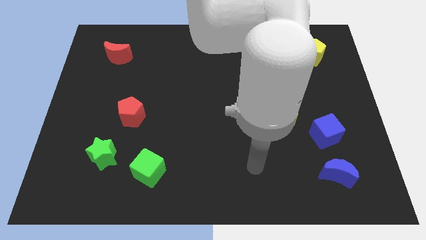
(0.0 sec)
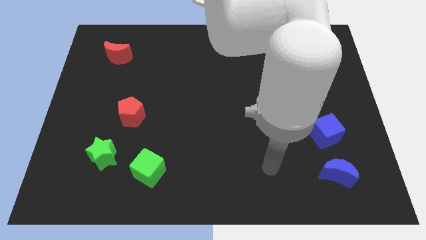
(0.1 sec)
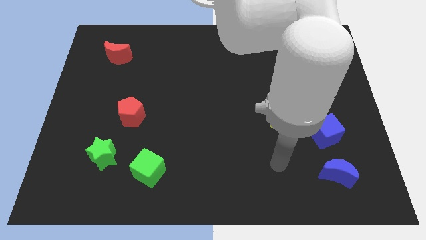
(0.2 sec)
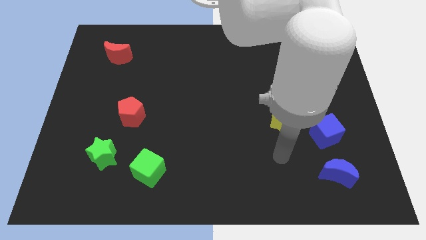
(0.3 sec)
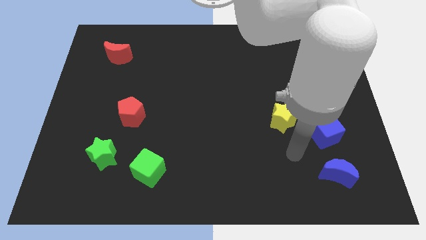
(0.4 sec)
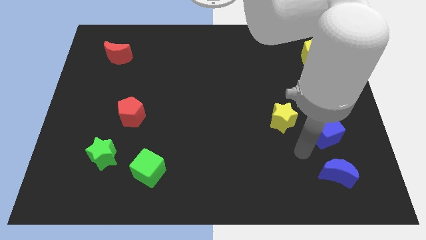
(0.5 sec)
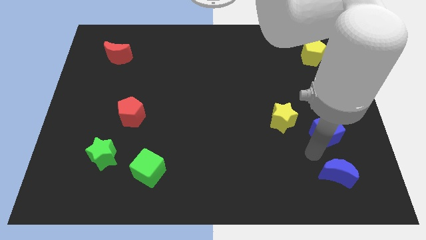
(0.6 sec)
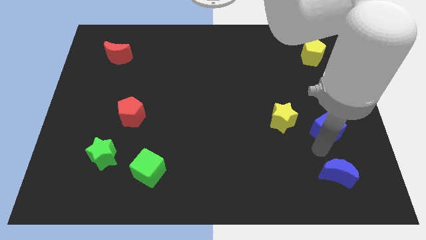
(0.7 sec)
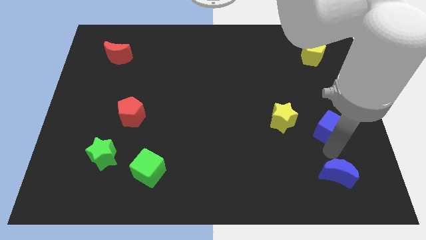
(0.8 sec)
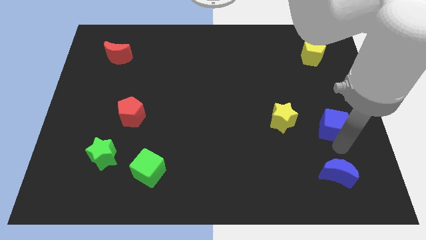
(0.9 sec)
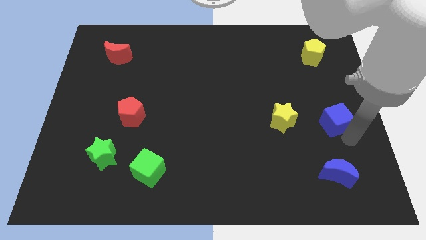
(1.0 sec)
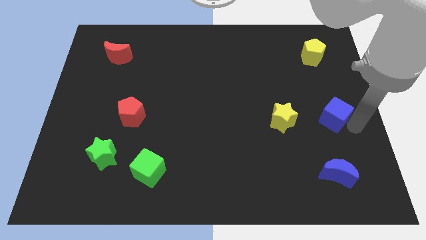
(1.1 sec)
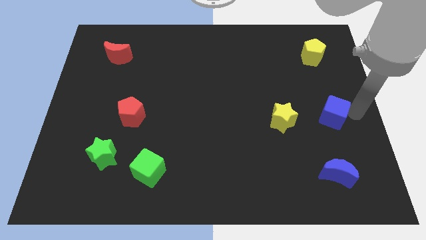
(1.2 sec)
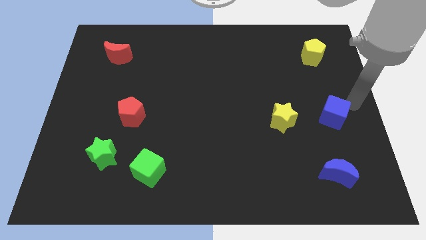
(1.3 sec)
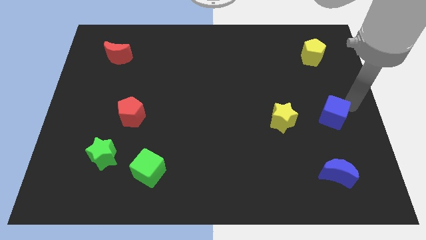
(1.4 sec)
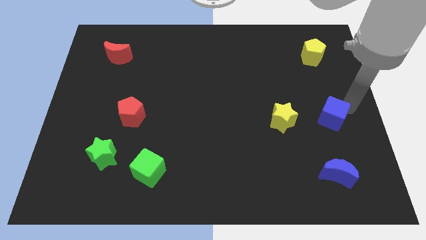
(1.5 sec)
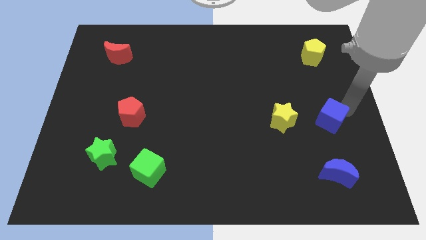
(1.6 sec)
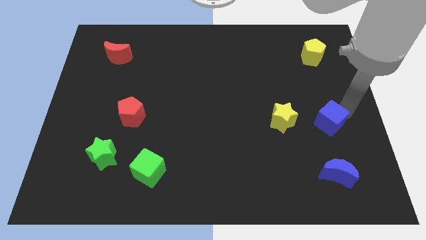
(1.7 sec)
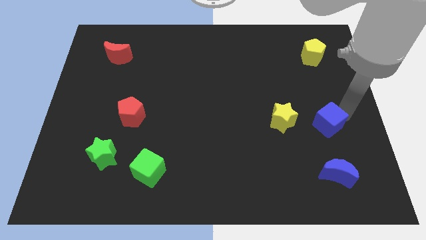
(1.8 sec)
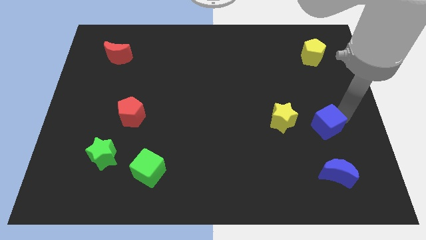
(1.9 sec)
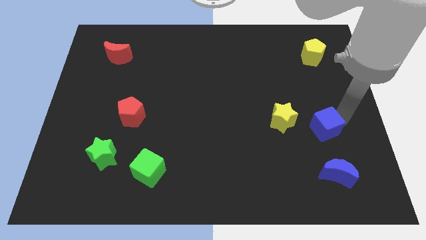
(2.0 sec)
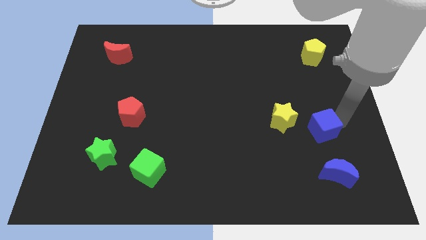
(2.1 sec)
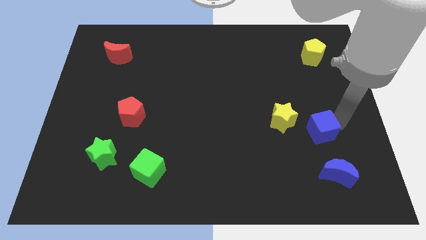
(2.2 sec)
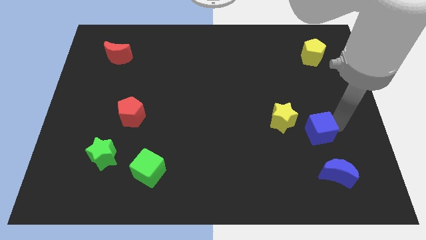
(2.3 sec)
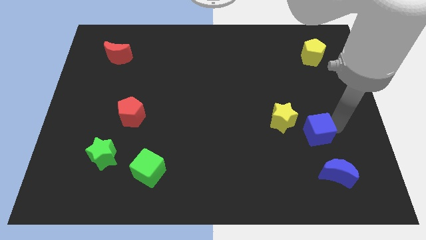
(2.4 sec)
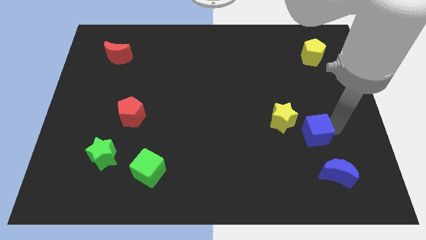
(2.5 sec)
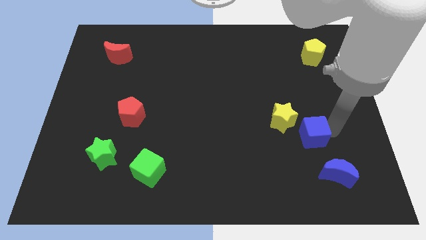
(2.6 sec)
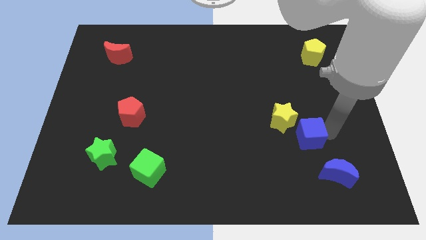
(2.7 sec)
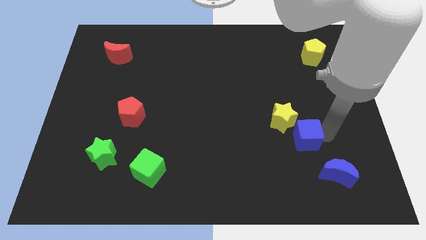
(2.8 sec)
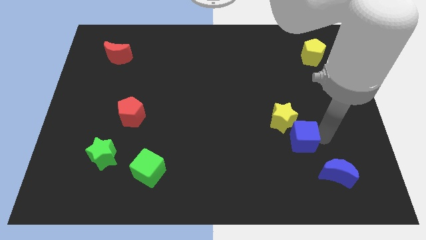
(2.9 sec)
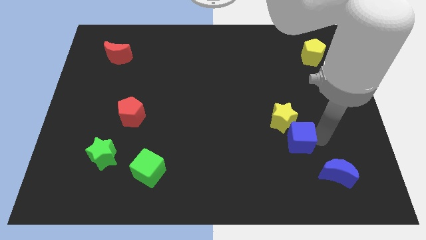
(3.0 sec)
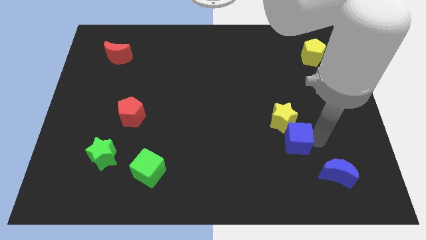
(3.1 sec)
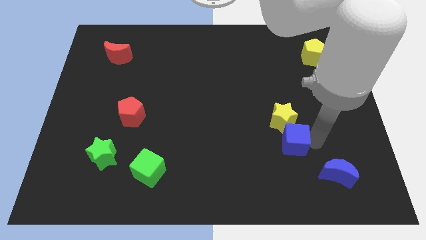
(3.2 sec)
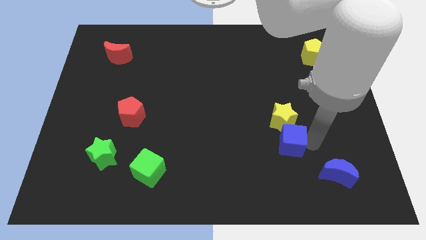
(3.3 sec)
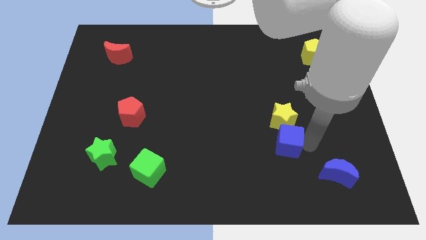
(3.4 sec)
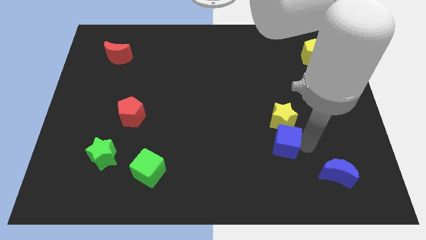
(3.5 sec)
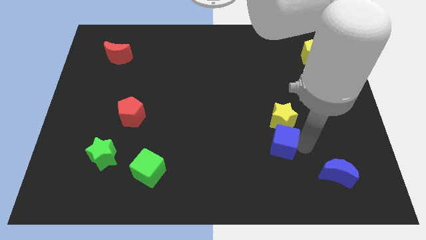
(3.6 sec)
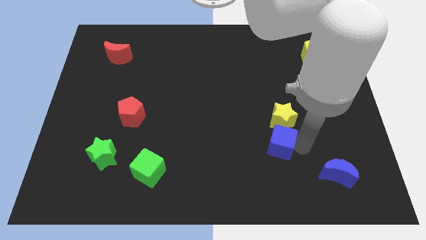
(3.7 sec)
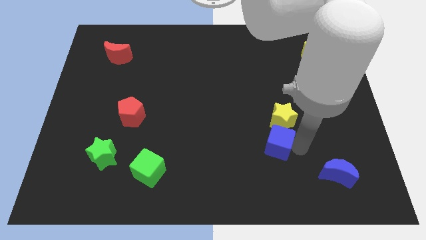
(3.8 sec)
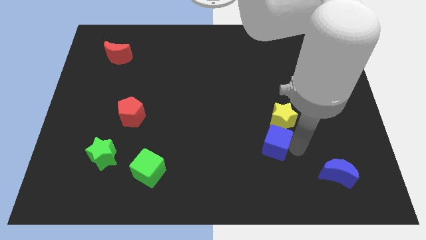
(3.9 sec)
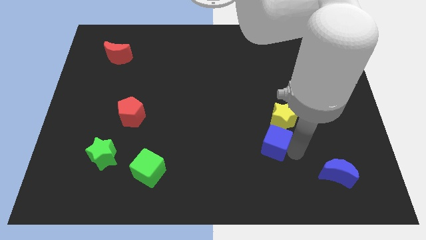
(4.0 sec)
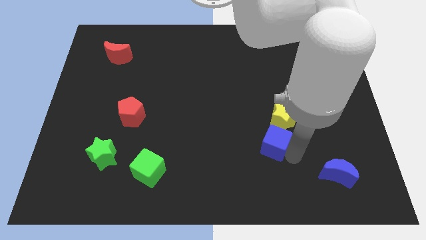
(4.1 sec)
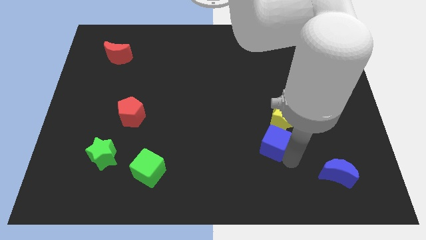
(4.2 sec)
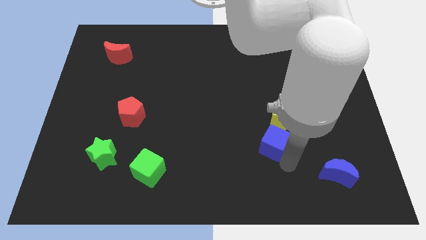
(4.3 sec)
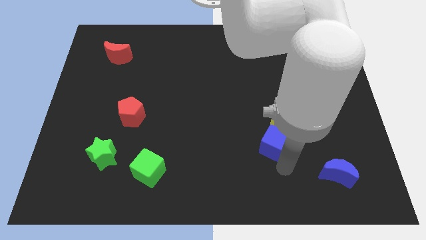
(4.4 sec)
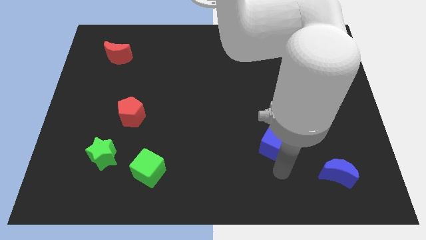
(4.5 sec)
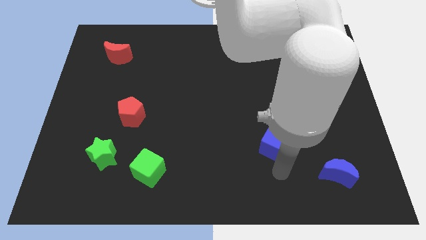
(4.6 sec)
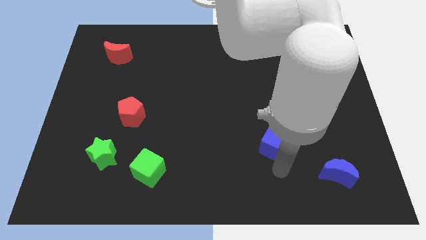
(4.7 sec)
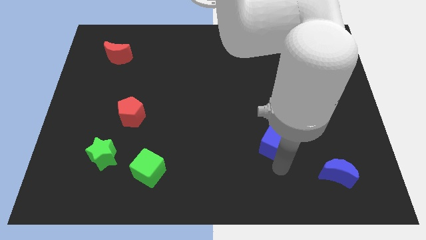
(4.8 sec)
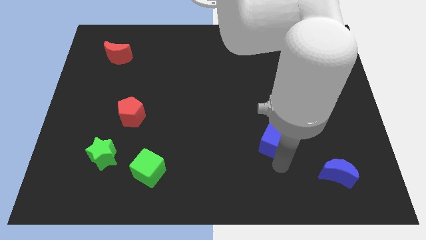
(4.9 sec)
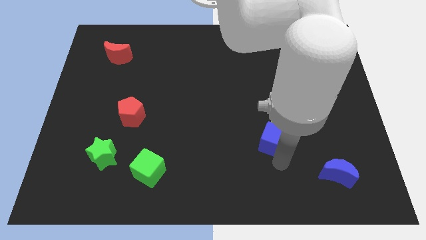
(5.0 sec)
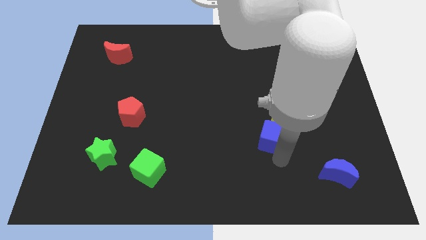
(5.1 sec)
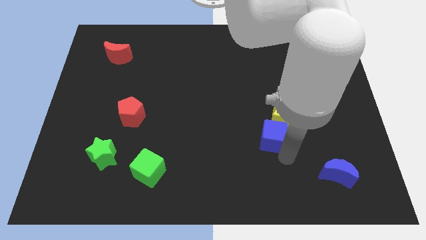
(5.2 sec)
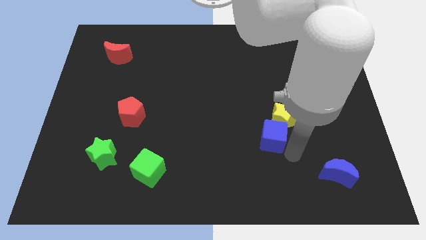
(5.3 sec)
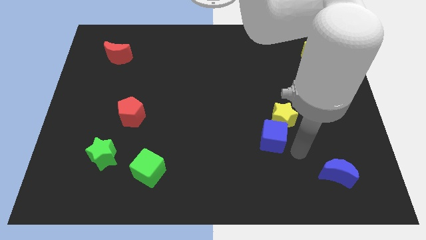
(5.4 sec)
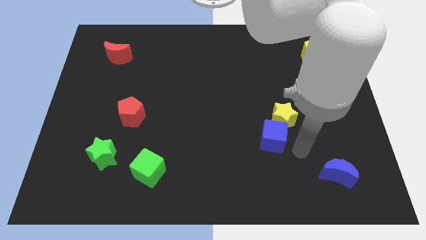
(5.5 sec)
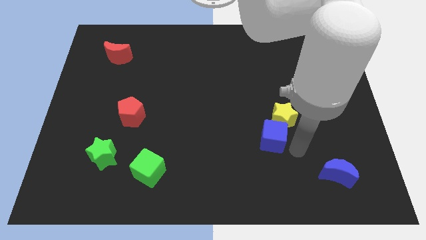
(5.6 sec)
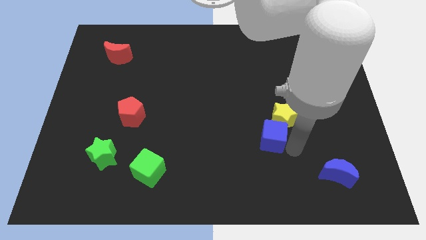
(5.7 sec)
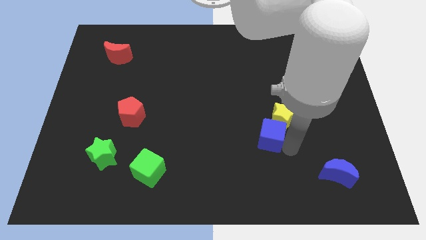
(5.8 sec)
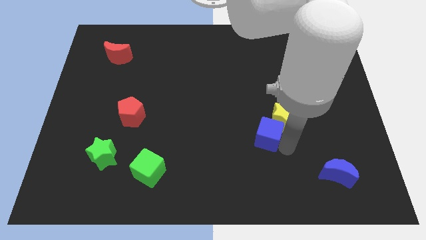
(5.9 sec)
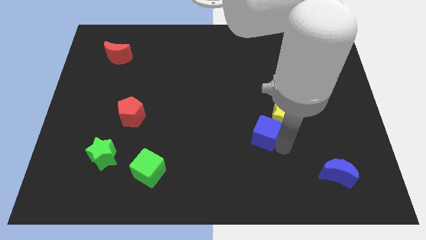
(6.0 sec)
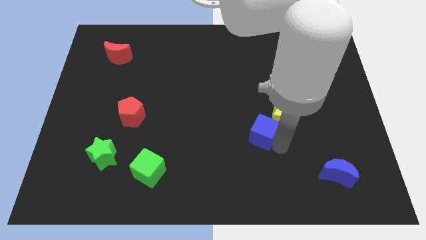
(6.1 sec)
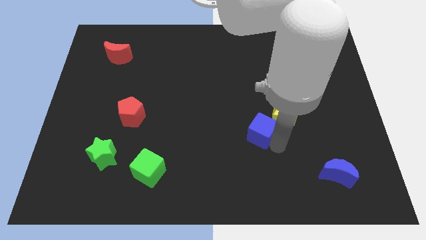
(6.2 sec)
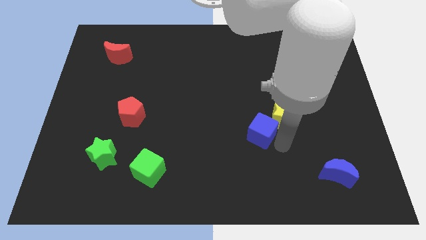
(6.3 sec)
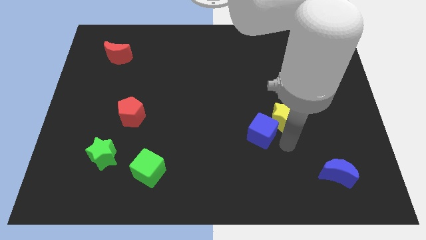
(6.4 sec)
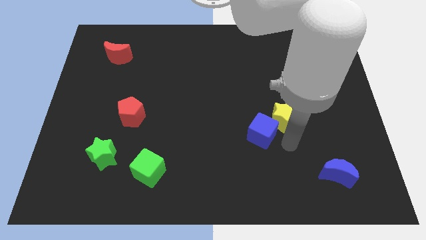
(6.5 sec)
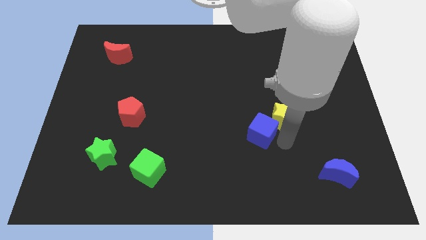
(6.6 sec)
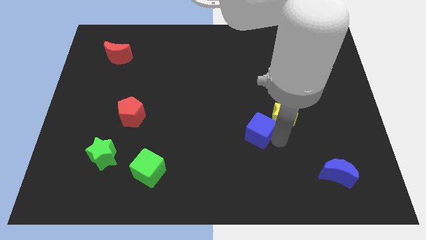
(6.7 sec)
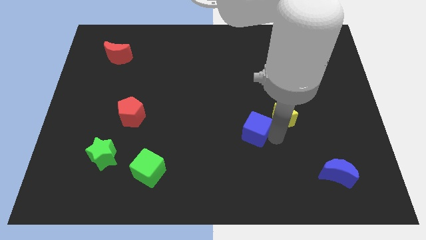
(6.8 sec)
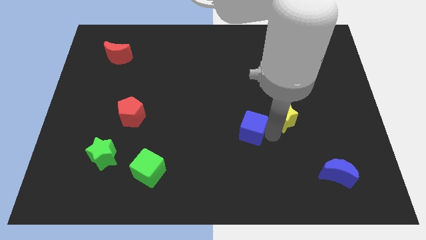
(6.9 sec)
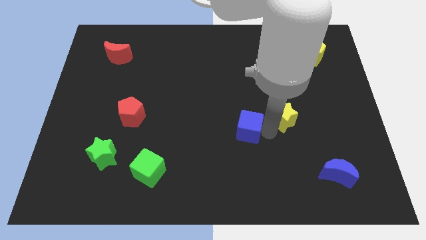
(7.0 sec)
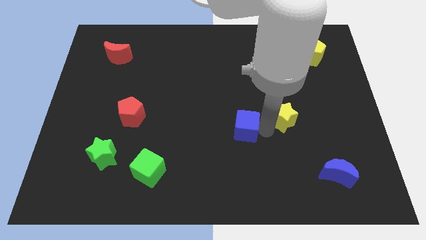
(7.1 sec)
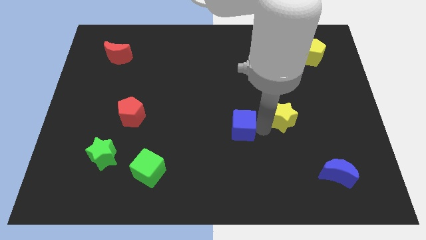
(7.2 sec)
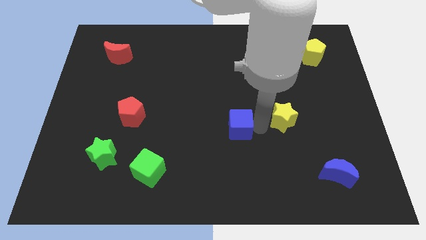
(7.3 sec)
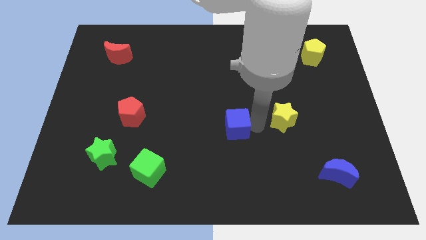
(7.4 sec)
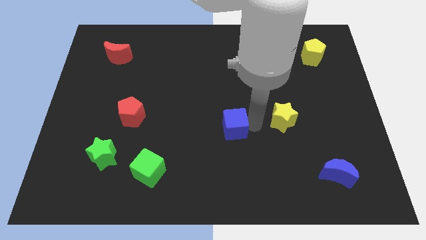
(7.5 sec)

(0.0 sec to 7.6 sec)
move the blue cube left

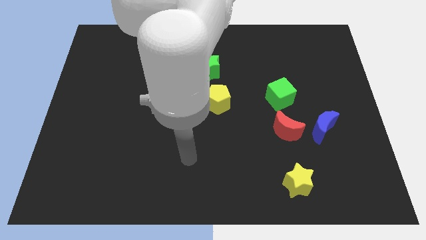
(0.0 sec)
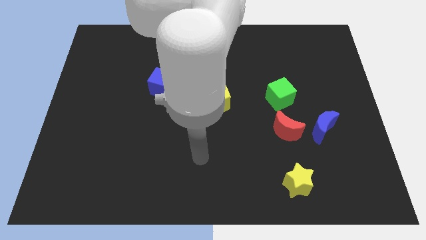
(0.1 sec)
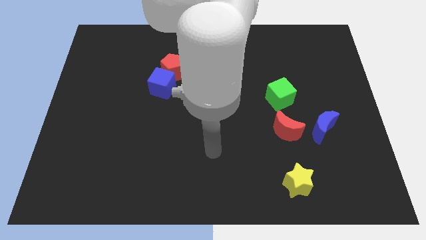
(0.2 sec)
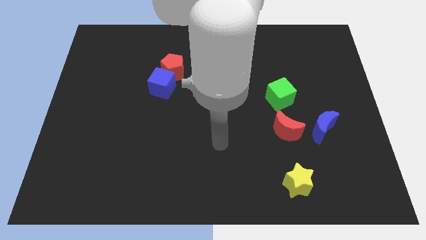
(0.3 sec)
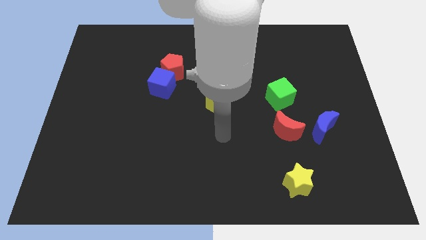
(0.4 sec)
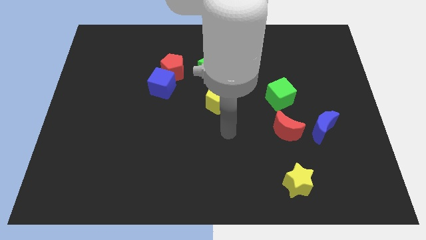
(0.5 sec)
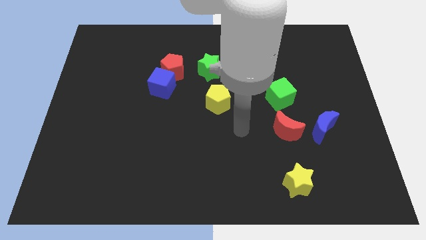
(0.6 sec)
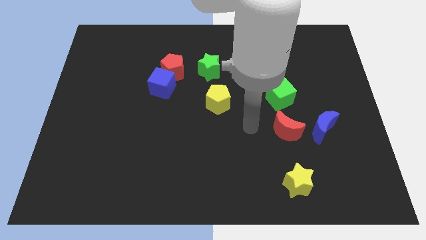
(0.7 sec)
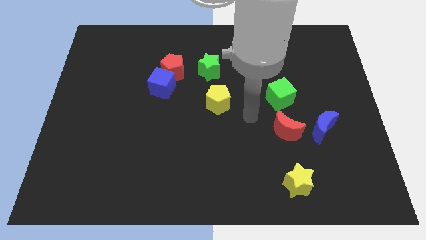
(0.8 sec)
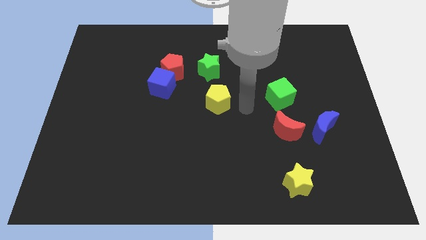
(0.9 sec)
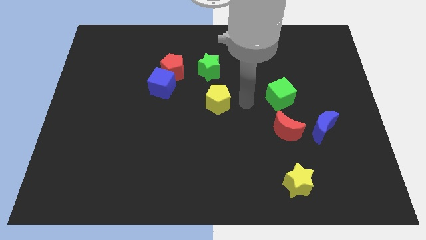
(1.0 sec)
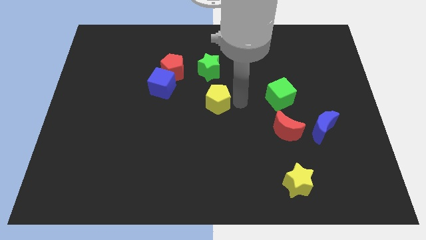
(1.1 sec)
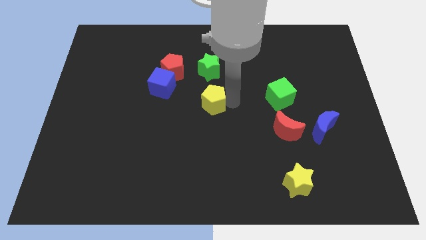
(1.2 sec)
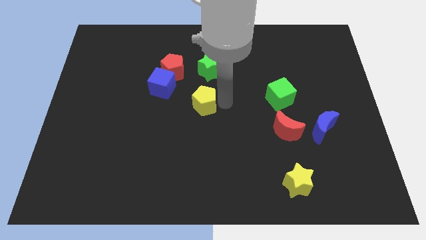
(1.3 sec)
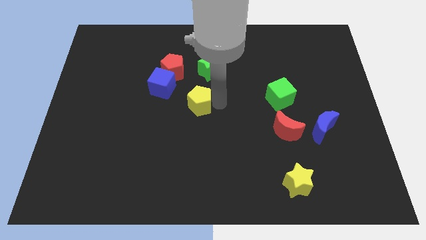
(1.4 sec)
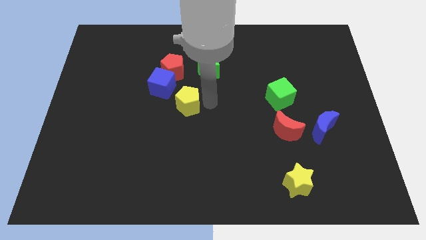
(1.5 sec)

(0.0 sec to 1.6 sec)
slide the yellow pentagon to the left a bit
